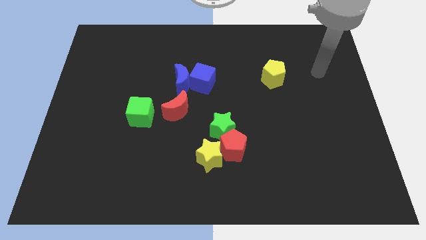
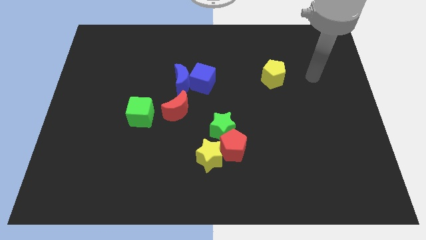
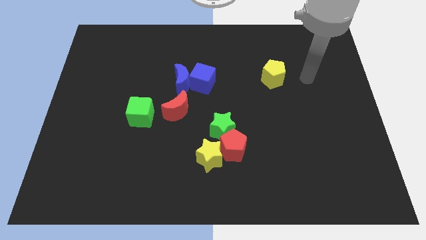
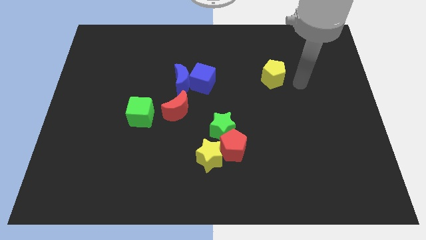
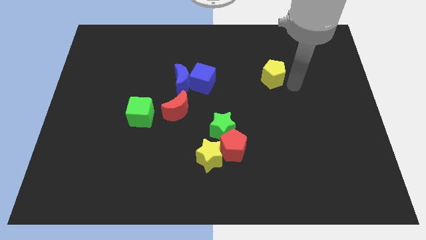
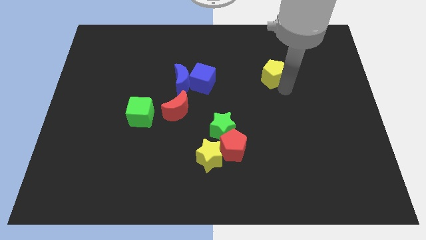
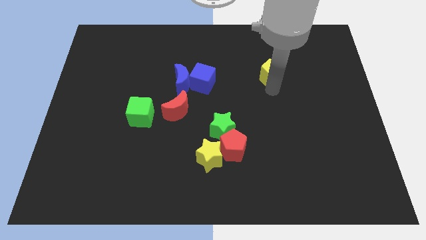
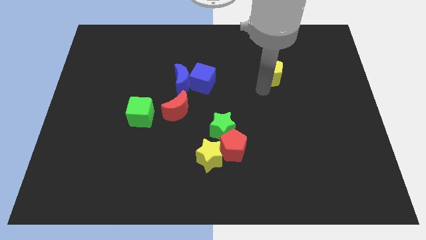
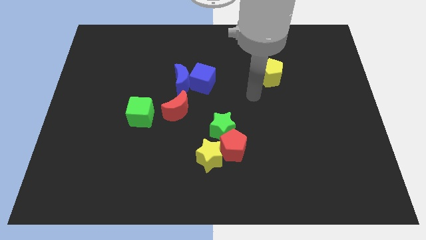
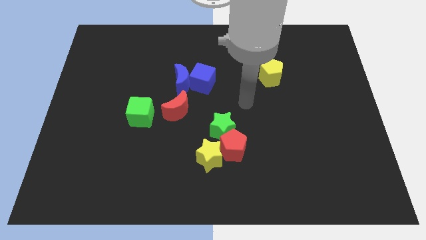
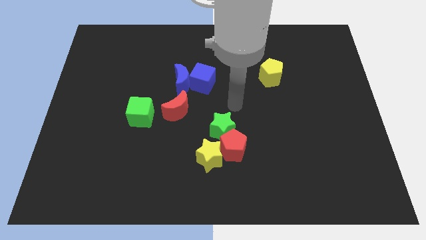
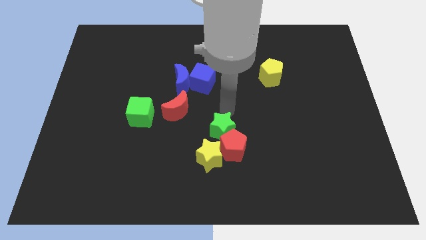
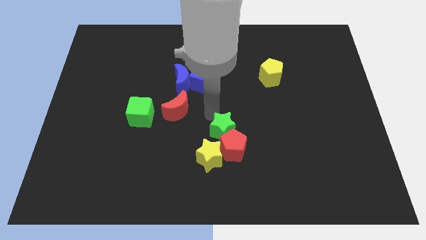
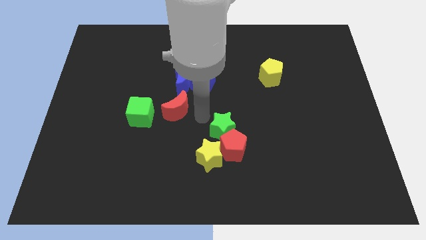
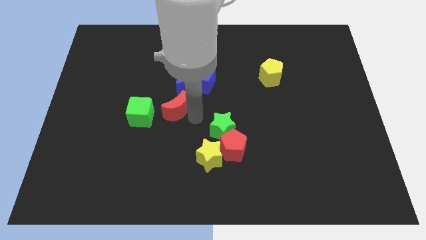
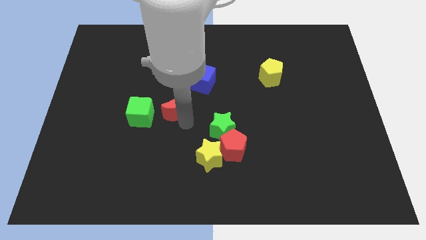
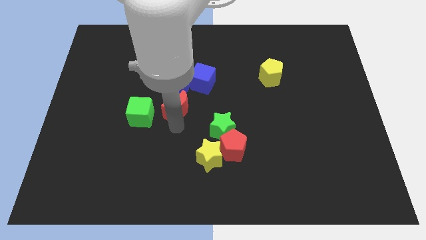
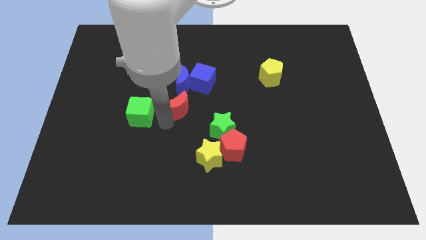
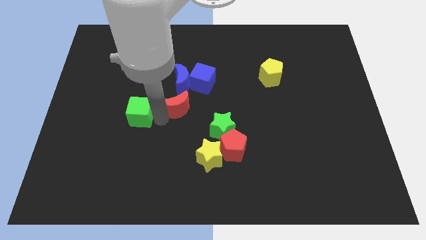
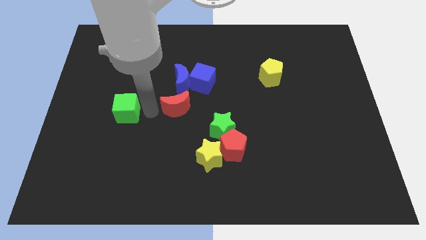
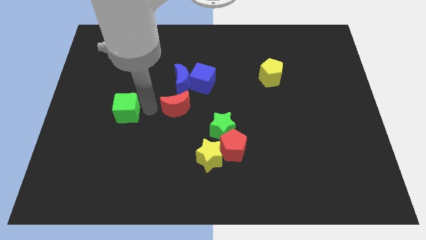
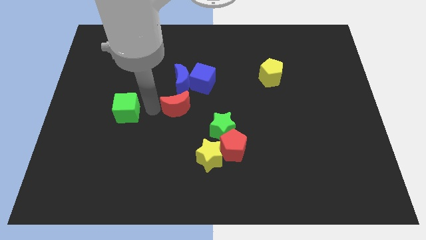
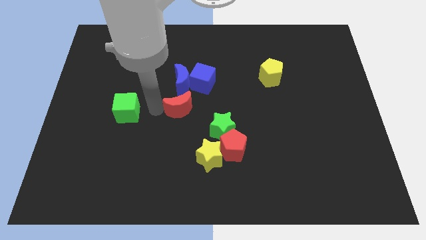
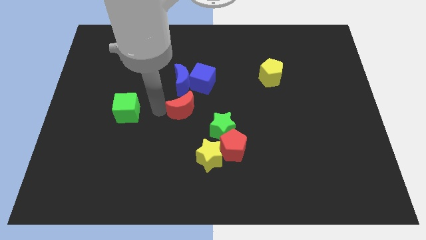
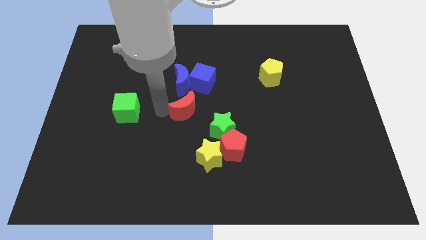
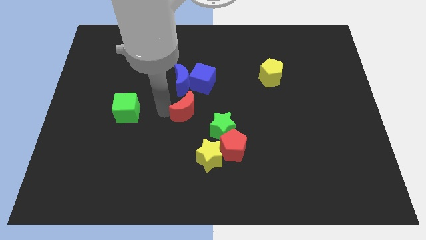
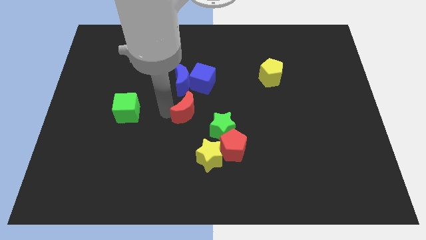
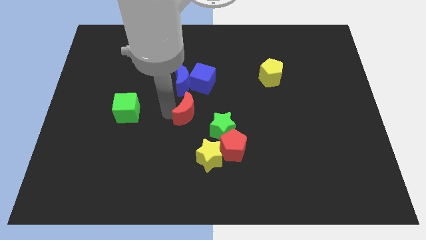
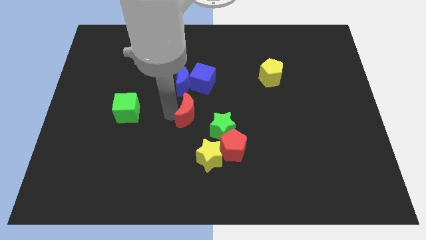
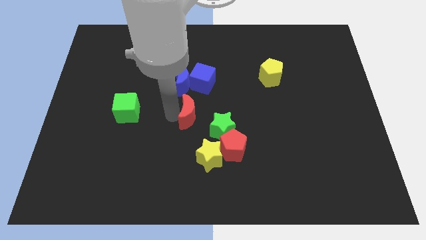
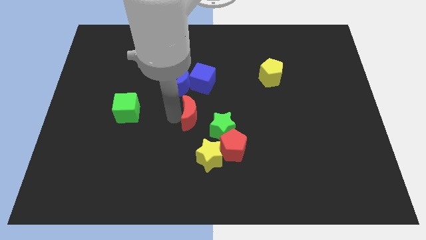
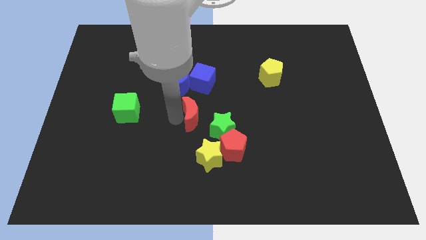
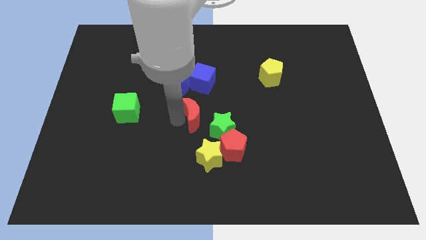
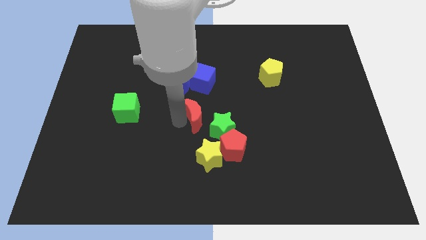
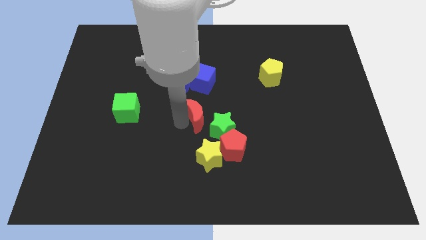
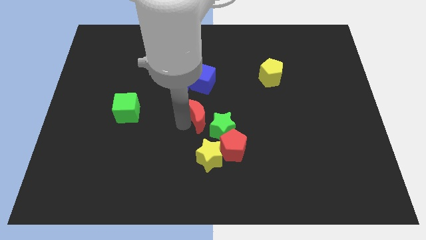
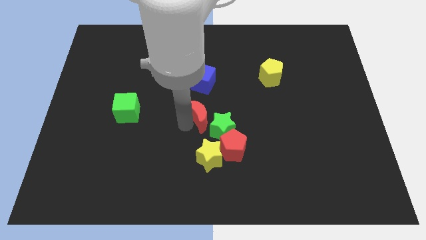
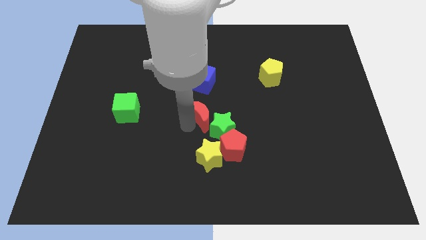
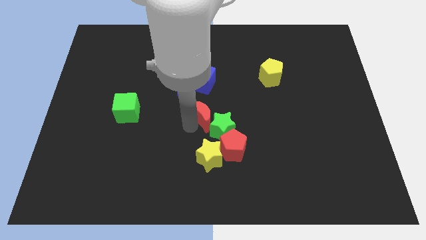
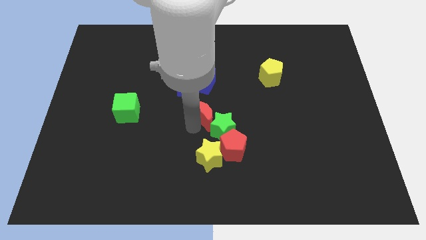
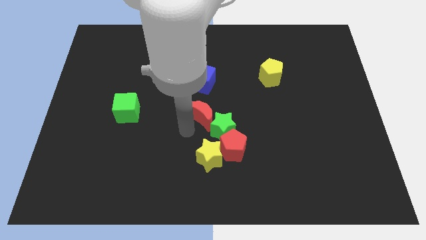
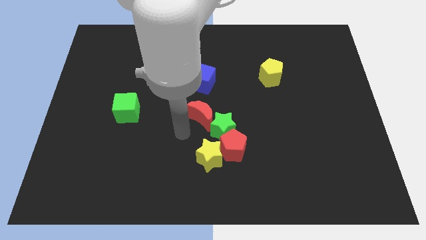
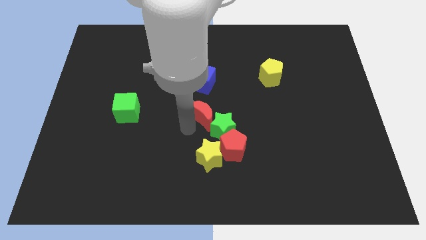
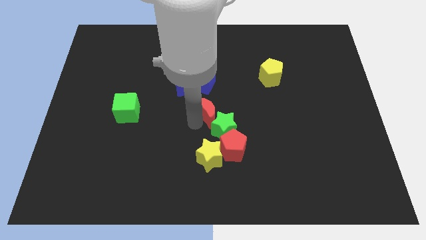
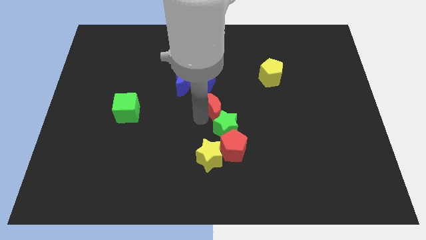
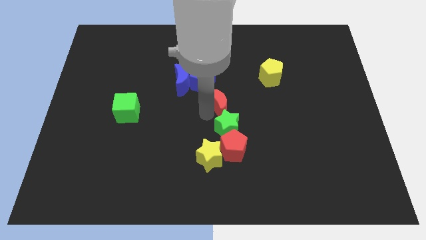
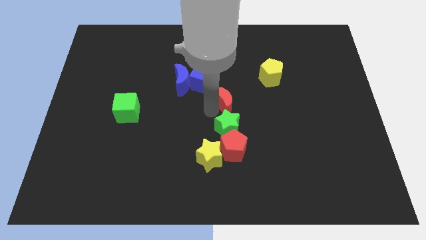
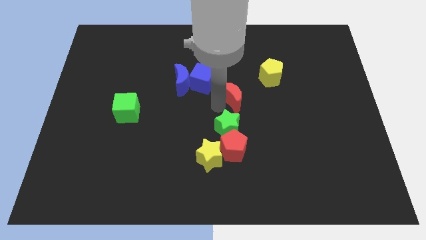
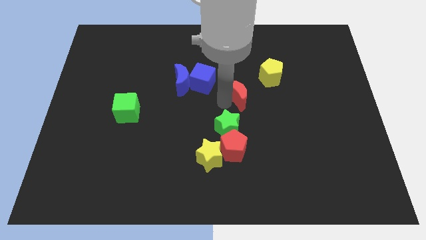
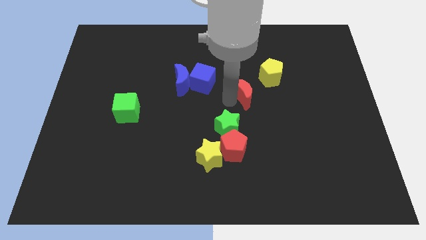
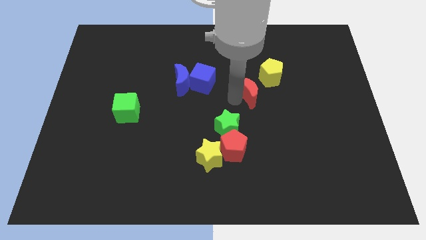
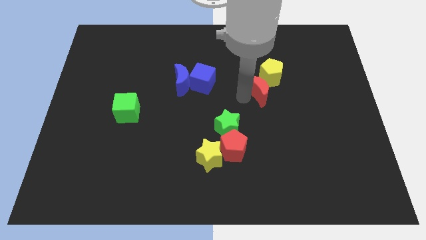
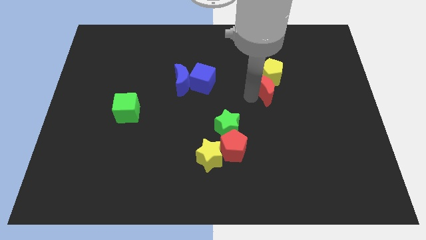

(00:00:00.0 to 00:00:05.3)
push the red moon towards the yellow pentagon

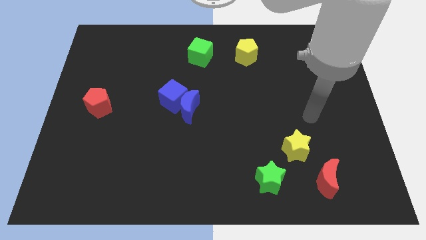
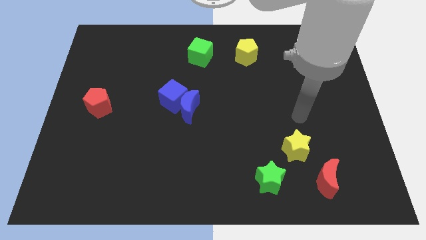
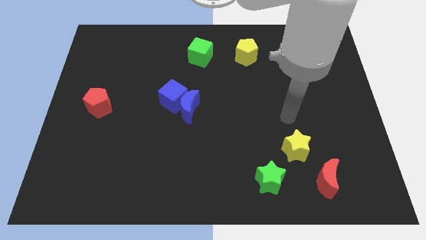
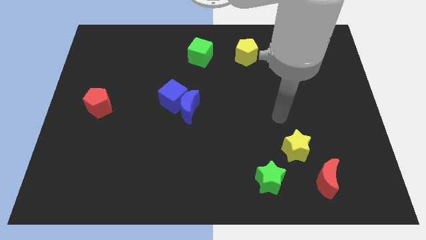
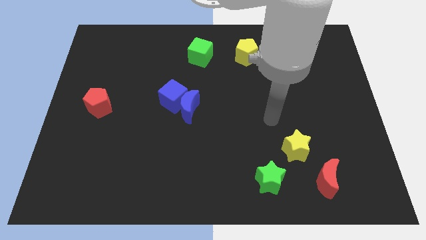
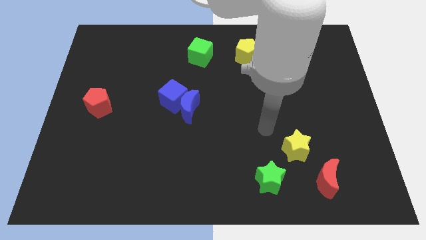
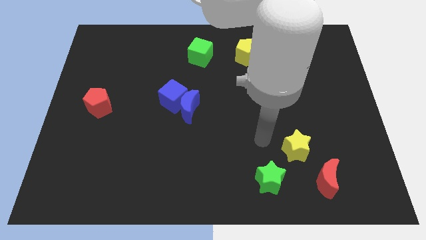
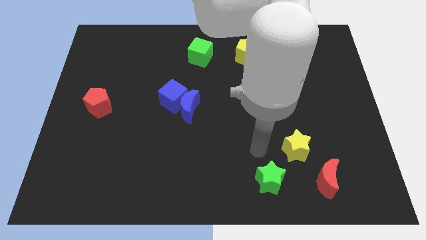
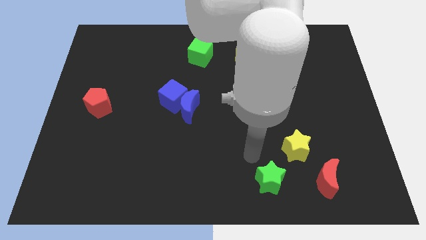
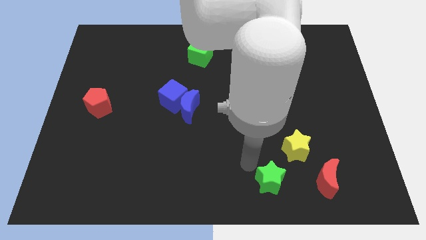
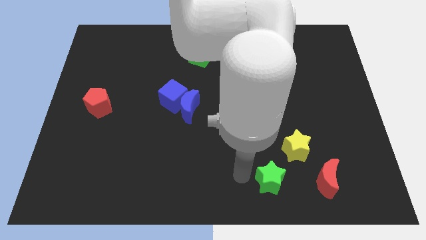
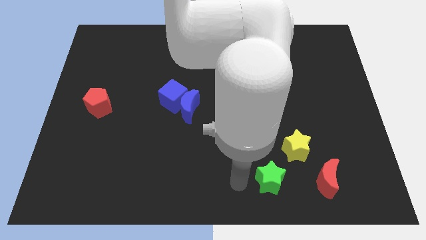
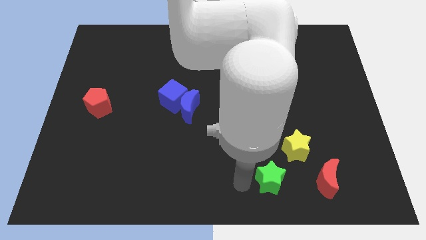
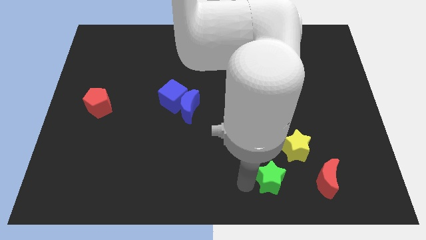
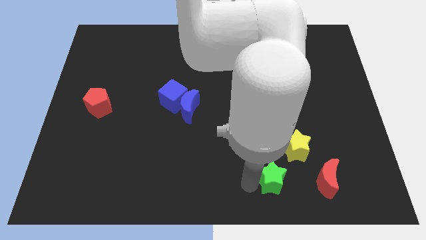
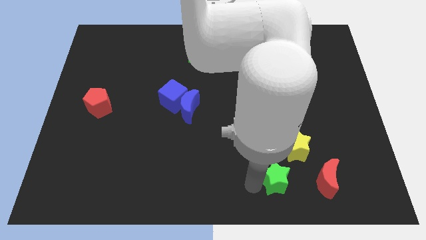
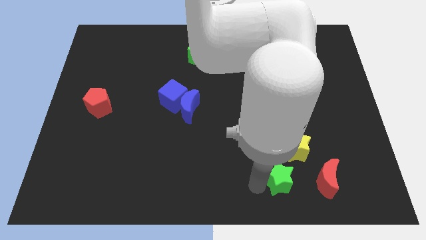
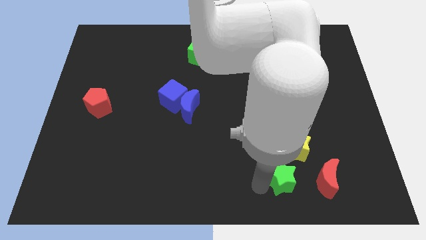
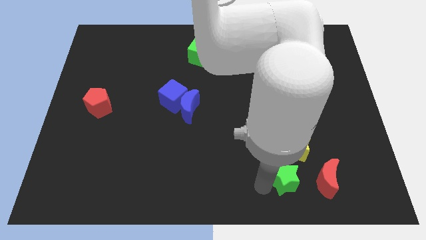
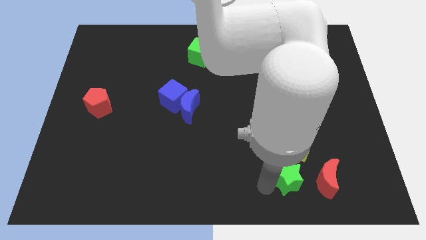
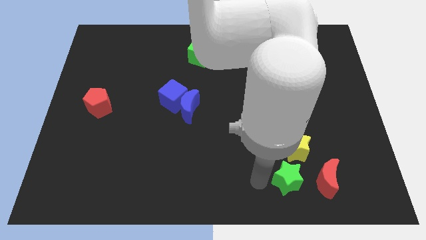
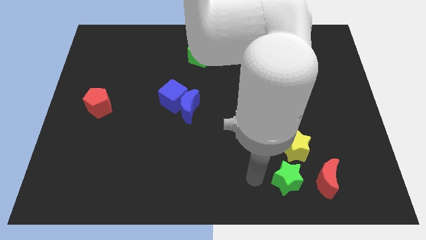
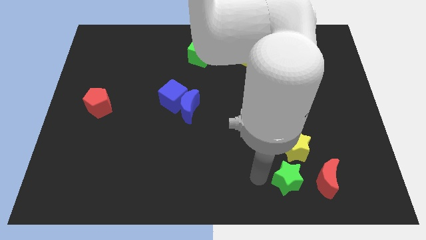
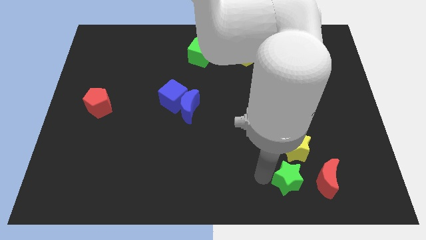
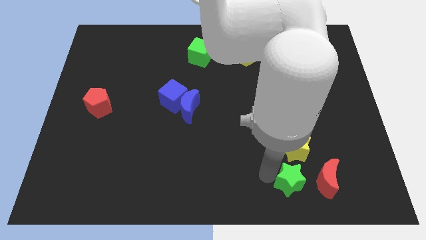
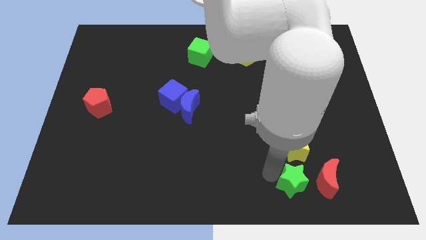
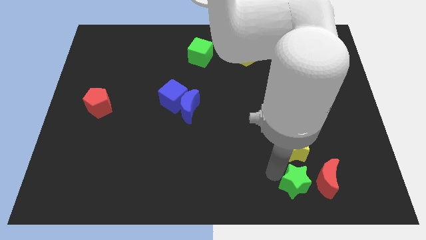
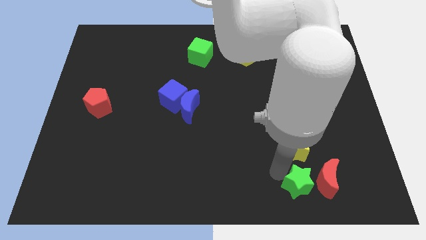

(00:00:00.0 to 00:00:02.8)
put the green star towards the red moon
